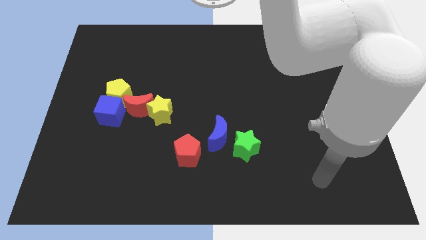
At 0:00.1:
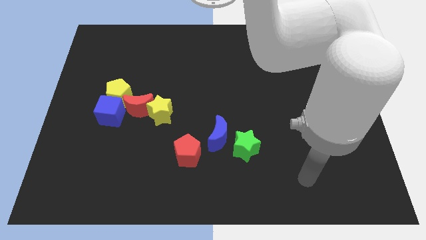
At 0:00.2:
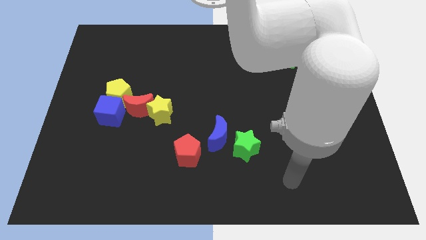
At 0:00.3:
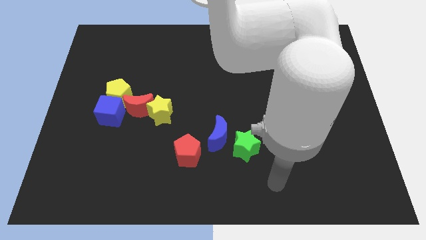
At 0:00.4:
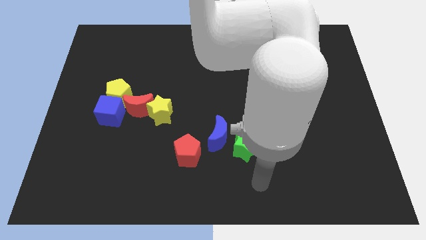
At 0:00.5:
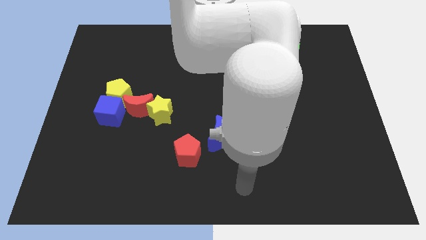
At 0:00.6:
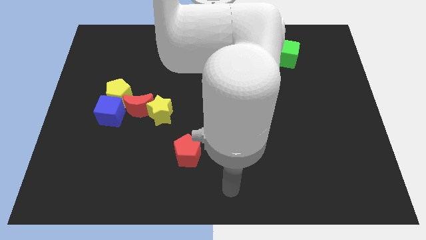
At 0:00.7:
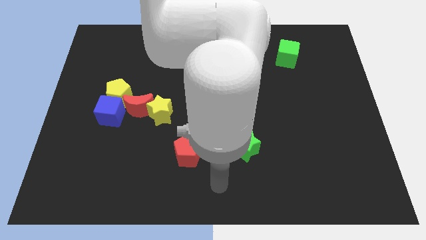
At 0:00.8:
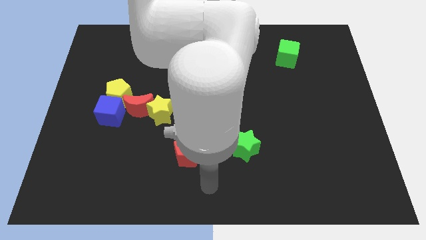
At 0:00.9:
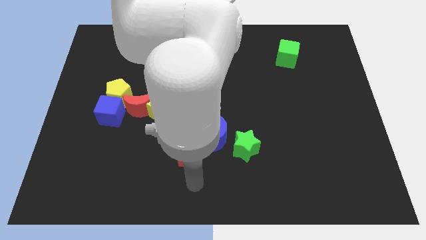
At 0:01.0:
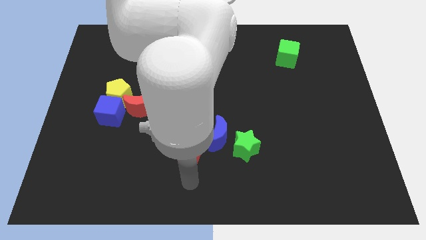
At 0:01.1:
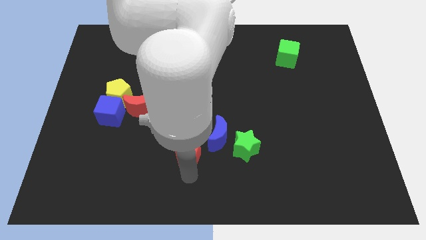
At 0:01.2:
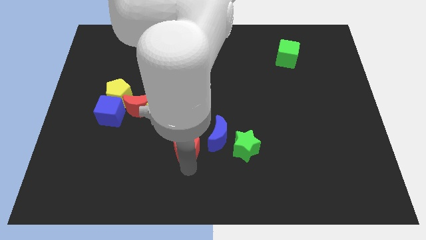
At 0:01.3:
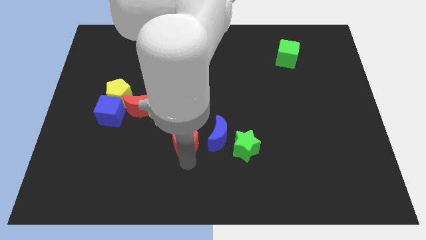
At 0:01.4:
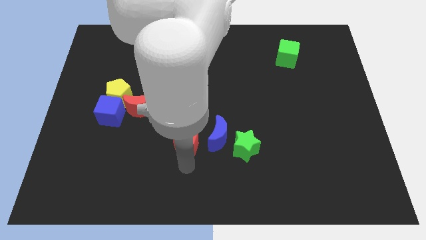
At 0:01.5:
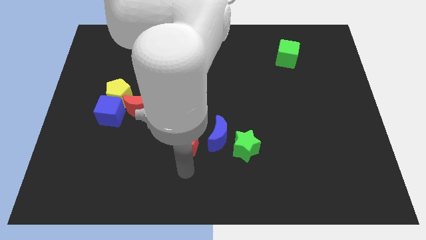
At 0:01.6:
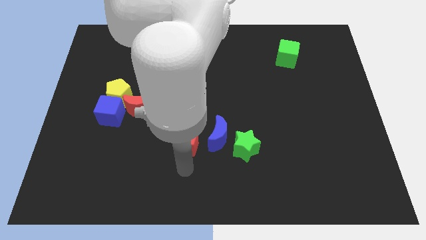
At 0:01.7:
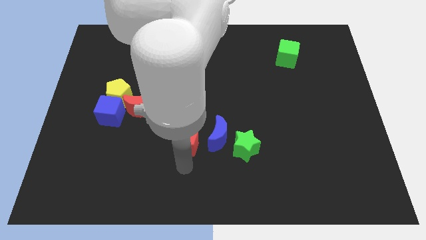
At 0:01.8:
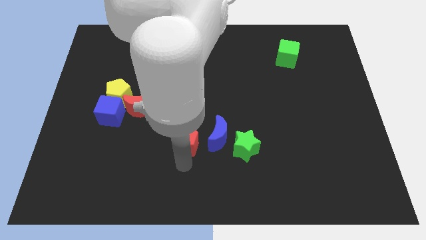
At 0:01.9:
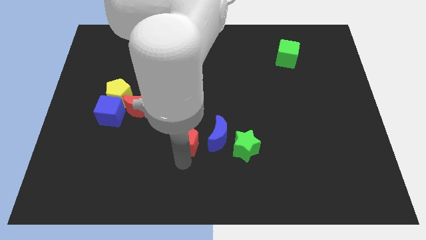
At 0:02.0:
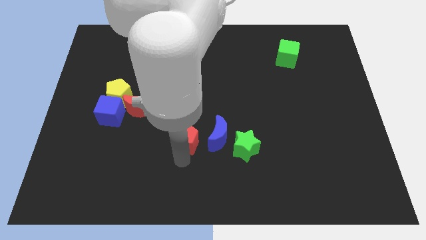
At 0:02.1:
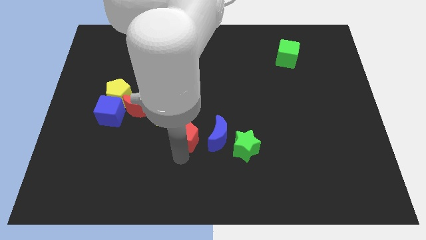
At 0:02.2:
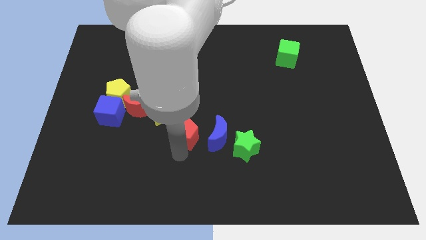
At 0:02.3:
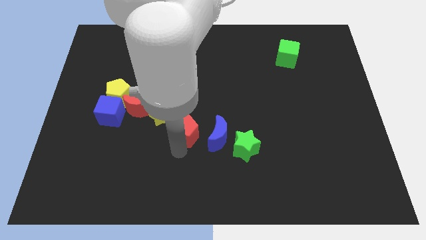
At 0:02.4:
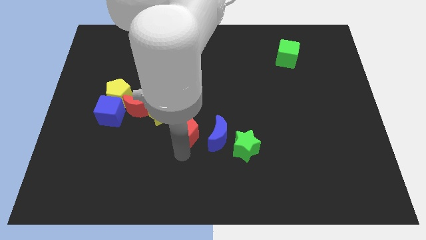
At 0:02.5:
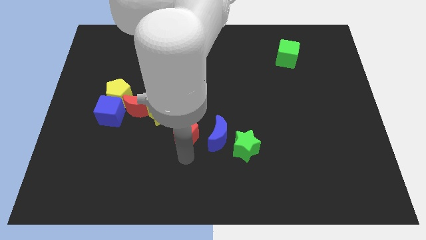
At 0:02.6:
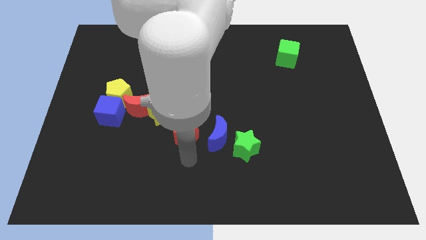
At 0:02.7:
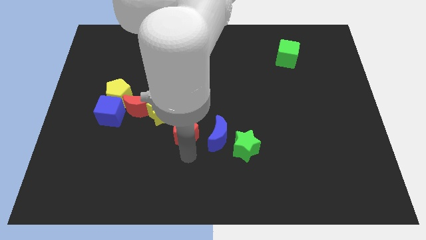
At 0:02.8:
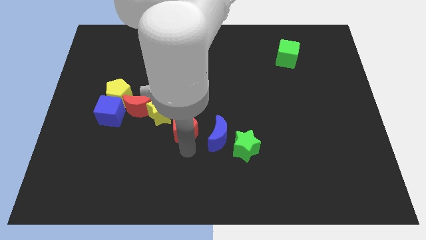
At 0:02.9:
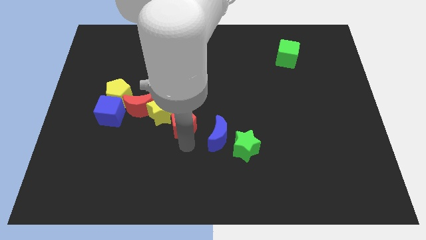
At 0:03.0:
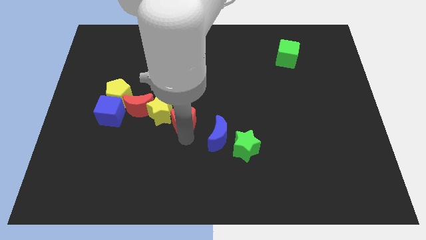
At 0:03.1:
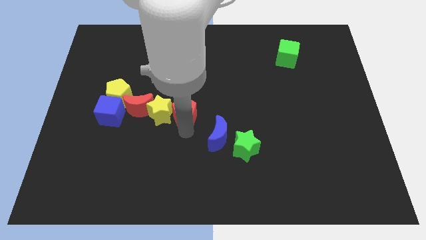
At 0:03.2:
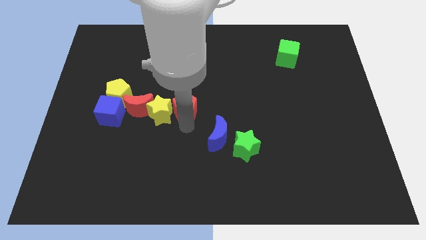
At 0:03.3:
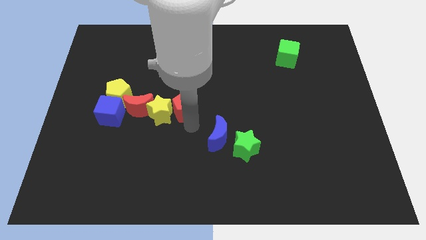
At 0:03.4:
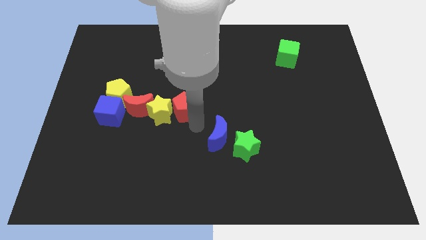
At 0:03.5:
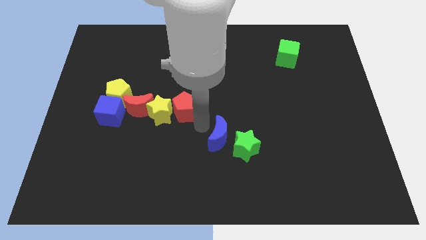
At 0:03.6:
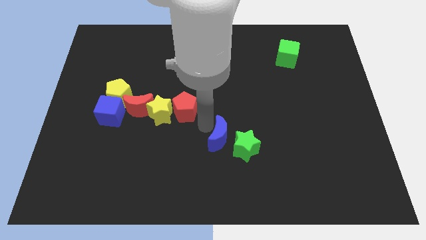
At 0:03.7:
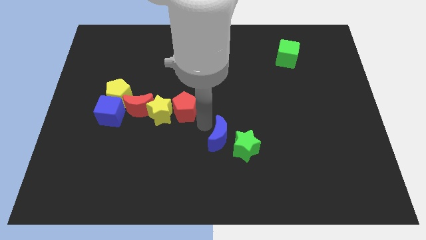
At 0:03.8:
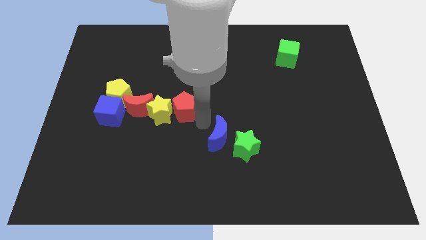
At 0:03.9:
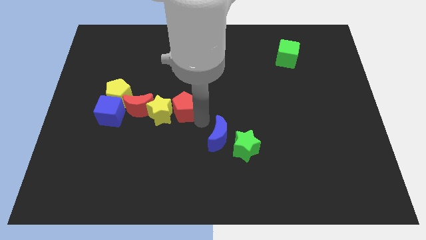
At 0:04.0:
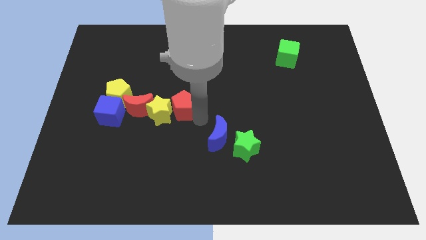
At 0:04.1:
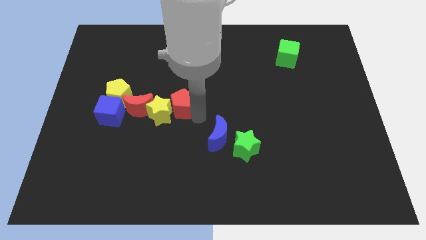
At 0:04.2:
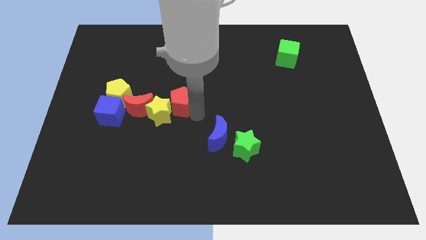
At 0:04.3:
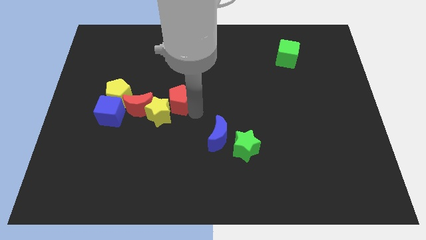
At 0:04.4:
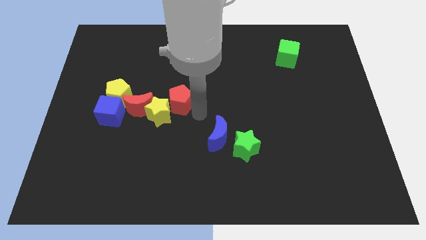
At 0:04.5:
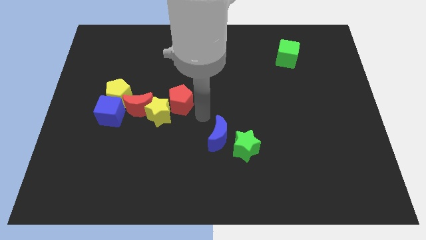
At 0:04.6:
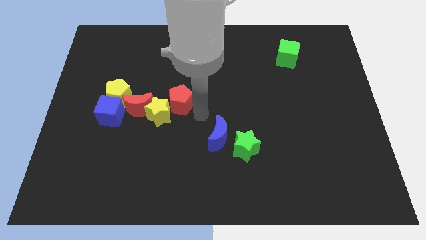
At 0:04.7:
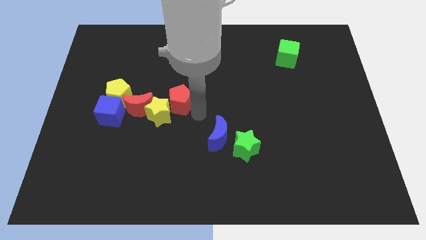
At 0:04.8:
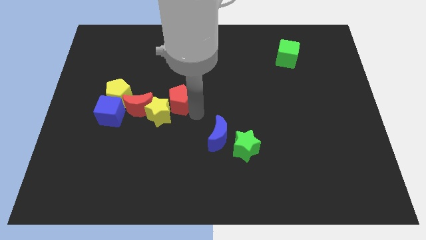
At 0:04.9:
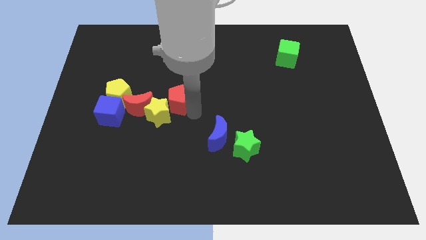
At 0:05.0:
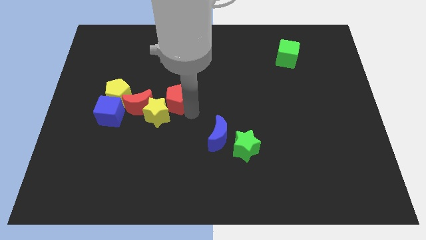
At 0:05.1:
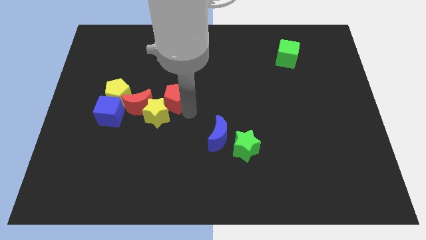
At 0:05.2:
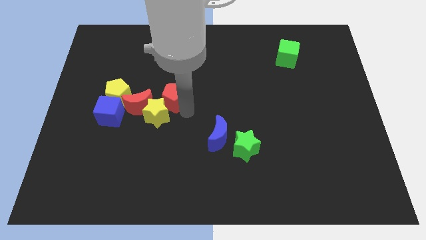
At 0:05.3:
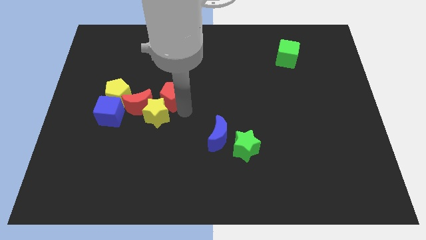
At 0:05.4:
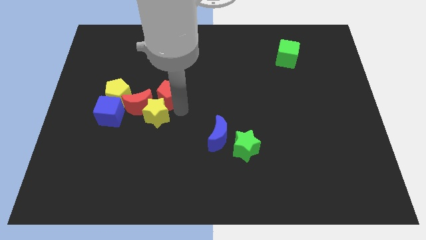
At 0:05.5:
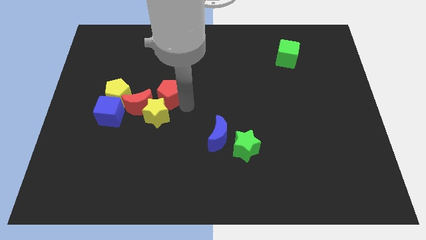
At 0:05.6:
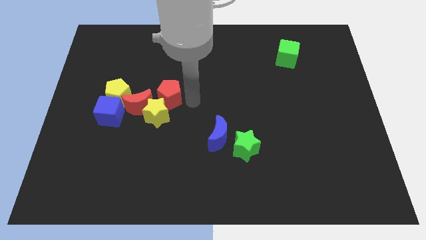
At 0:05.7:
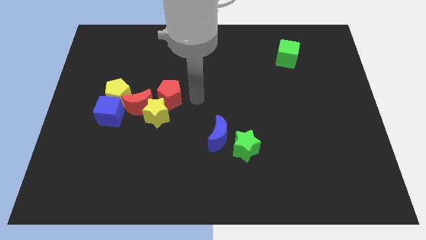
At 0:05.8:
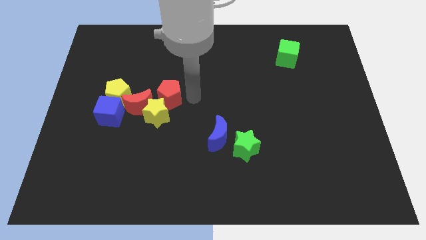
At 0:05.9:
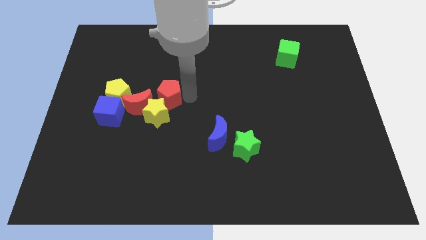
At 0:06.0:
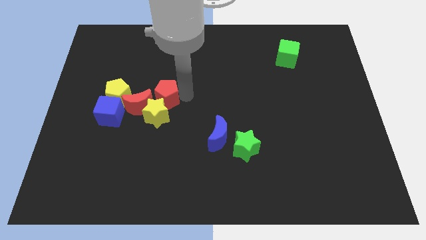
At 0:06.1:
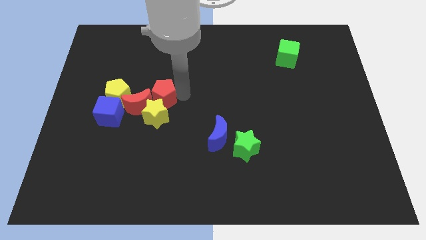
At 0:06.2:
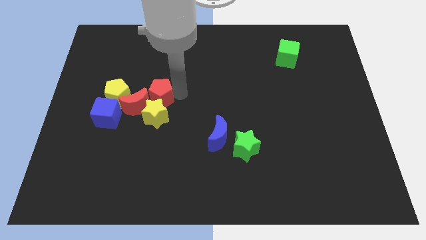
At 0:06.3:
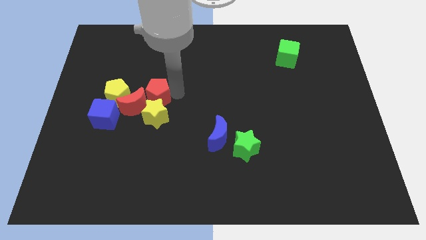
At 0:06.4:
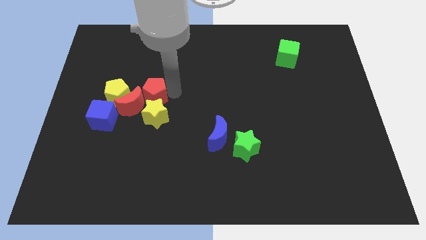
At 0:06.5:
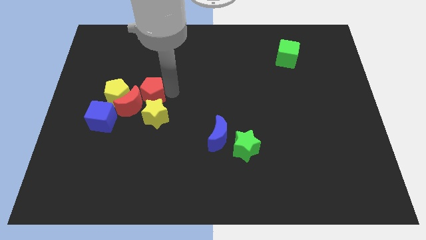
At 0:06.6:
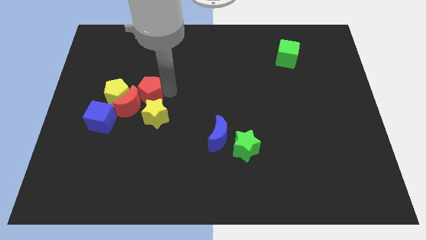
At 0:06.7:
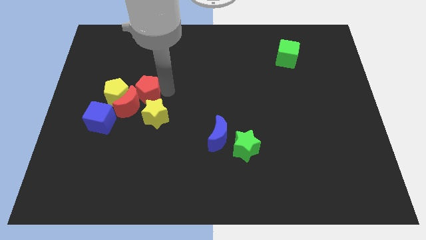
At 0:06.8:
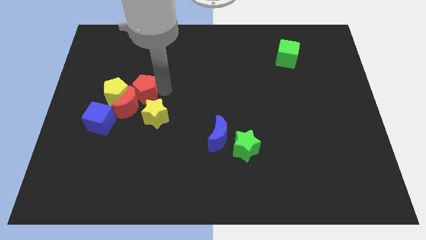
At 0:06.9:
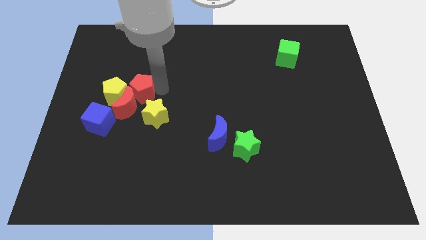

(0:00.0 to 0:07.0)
move the red pentagon next to the yellow pentagon

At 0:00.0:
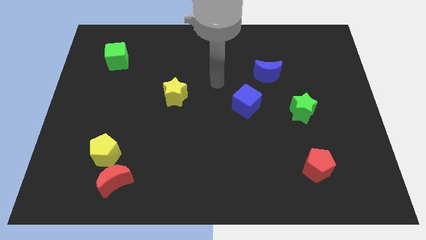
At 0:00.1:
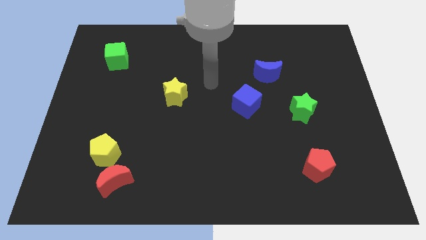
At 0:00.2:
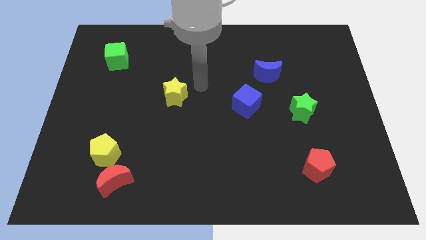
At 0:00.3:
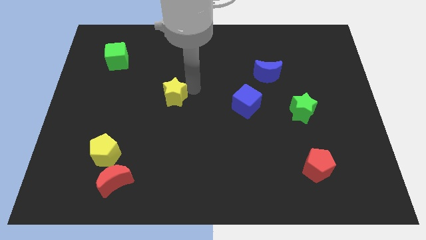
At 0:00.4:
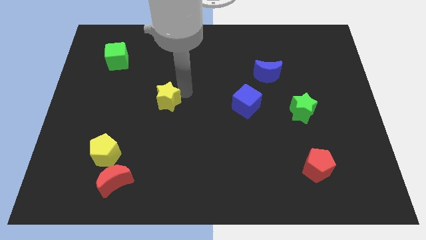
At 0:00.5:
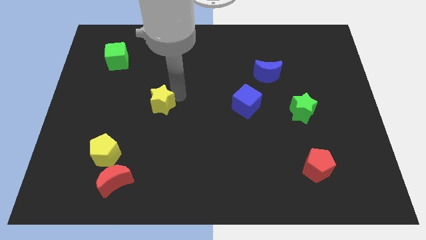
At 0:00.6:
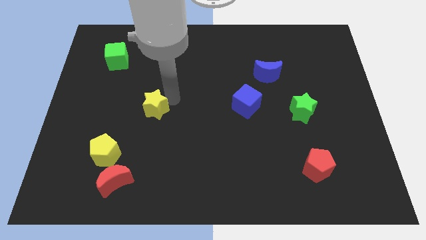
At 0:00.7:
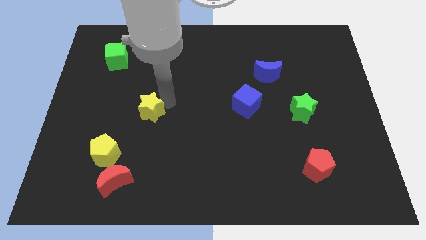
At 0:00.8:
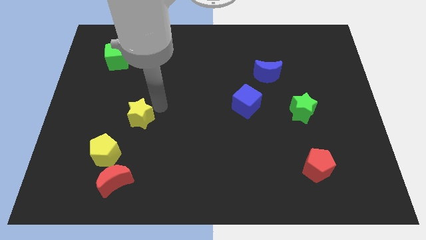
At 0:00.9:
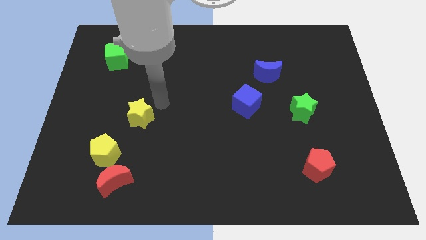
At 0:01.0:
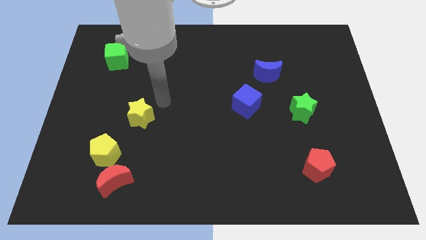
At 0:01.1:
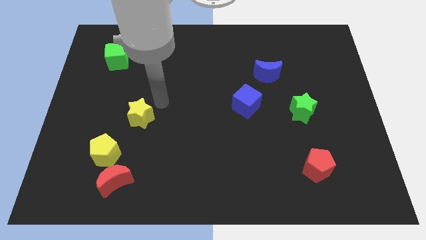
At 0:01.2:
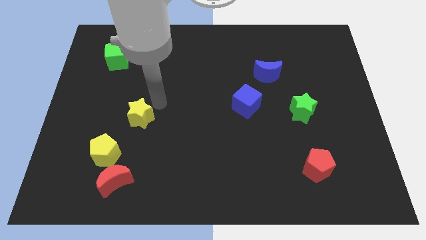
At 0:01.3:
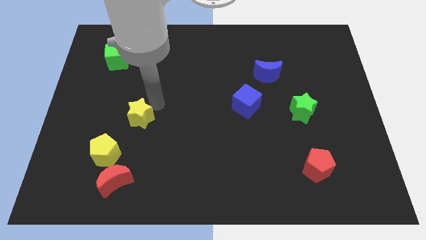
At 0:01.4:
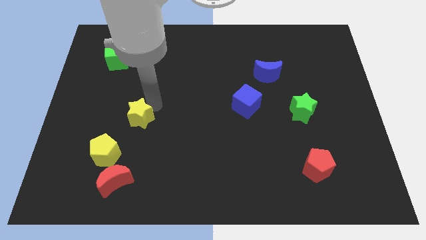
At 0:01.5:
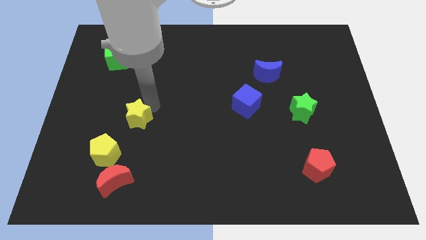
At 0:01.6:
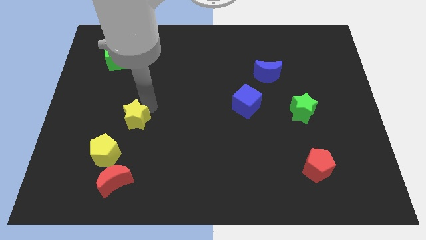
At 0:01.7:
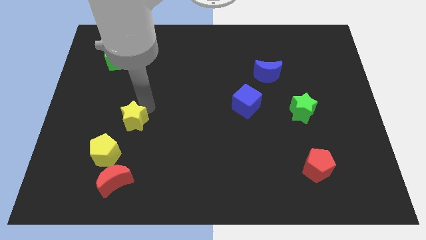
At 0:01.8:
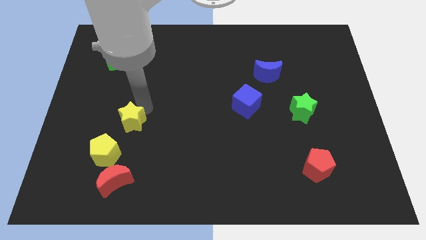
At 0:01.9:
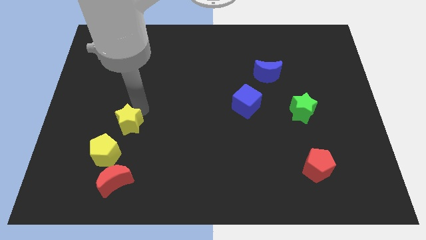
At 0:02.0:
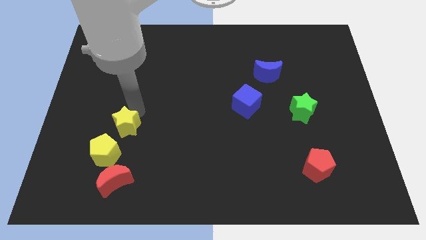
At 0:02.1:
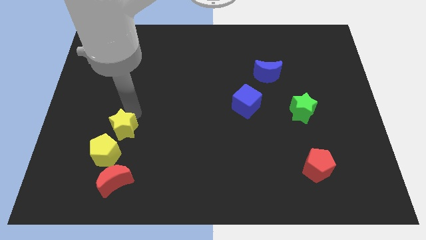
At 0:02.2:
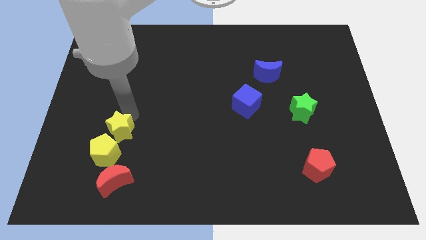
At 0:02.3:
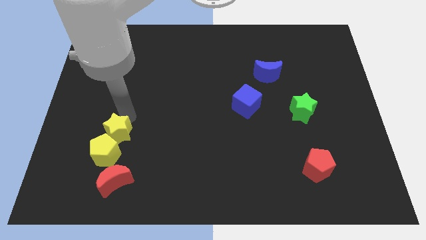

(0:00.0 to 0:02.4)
move the yellow star to the yellow pentagon
